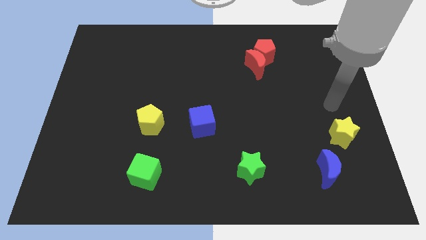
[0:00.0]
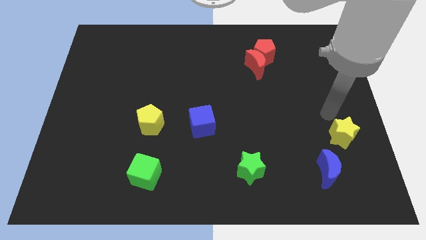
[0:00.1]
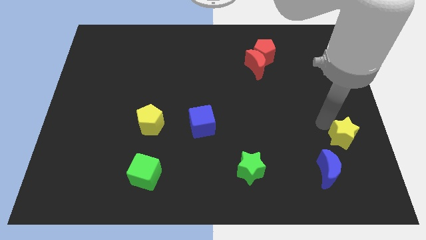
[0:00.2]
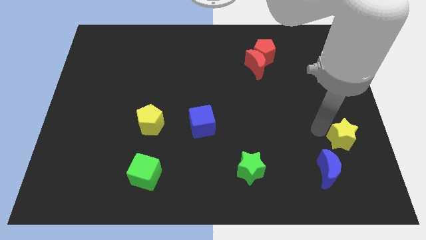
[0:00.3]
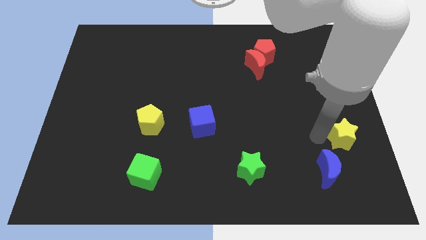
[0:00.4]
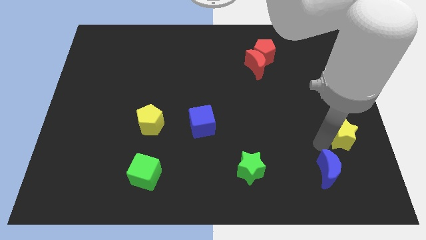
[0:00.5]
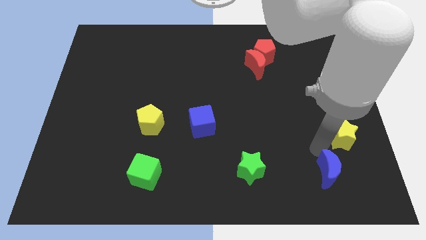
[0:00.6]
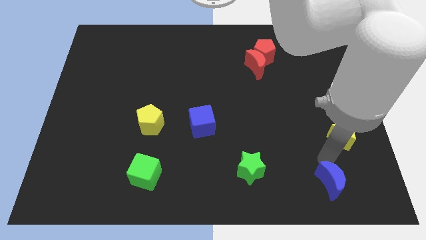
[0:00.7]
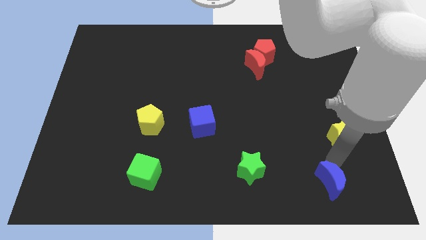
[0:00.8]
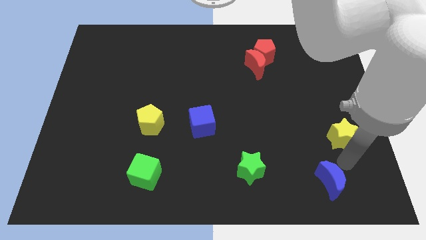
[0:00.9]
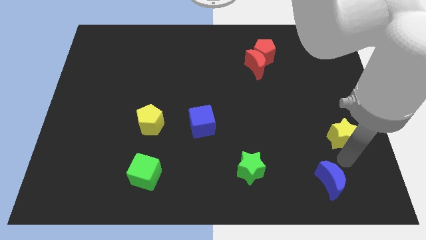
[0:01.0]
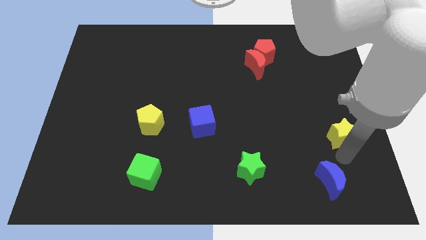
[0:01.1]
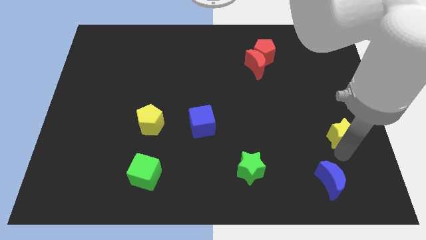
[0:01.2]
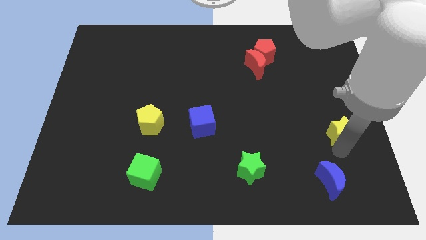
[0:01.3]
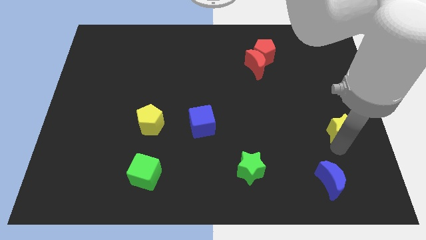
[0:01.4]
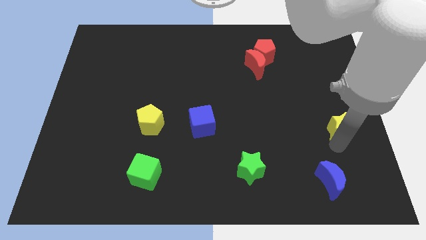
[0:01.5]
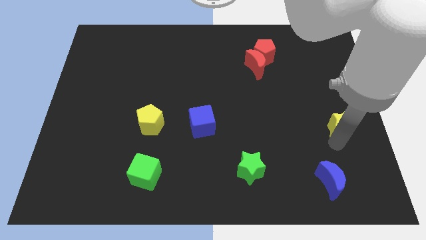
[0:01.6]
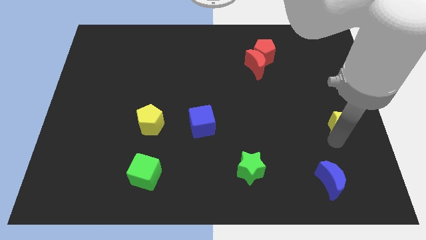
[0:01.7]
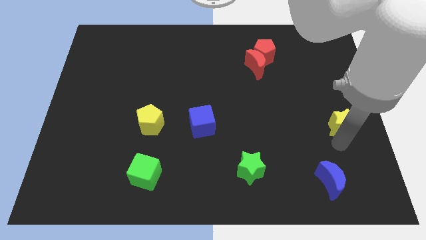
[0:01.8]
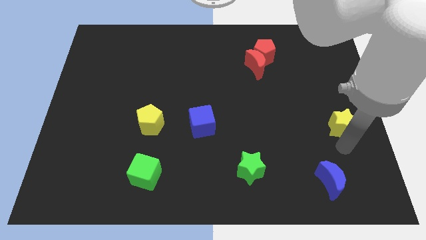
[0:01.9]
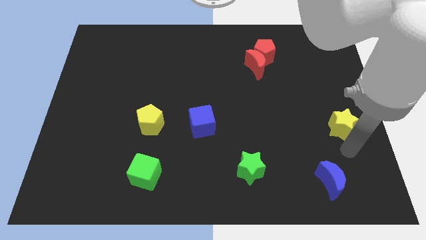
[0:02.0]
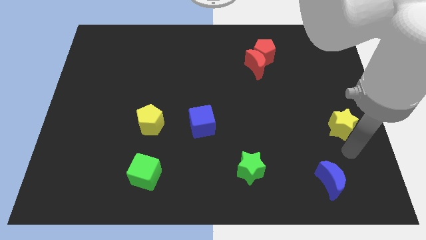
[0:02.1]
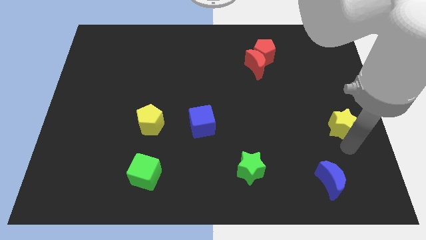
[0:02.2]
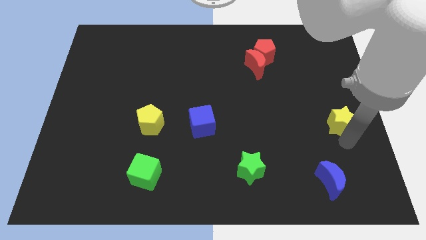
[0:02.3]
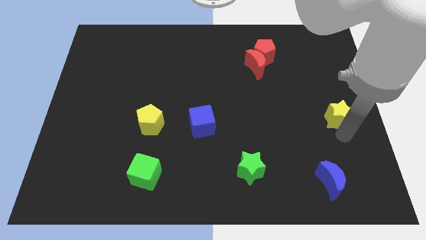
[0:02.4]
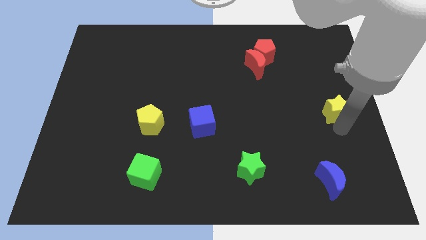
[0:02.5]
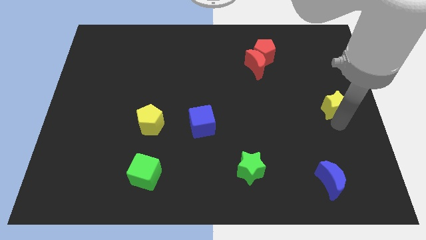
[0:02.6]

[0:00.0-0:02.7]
slide the yellow star a little up

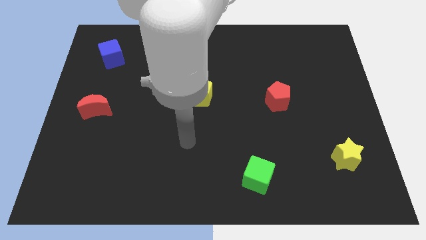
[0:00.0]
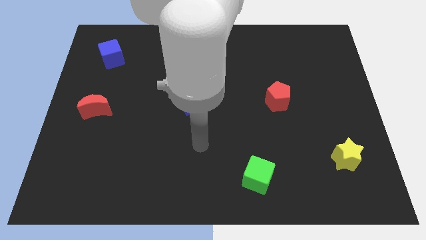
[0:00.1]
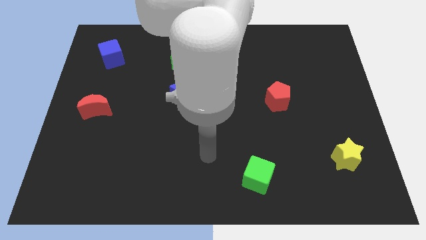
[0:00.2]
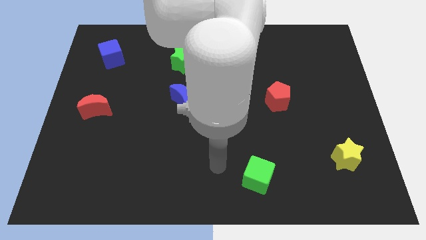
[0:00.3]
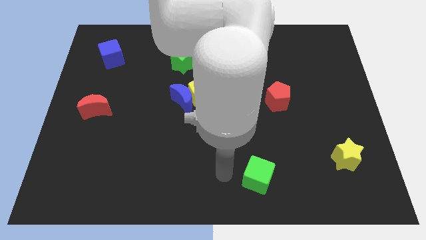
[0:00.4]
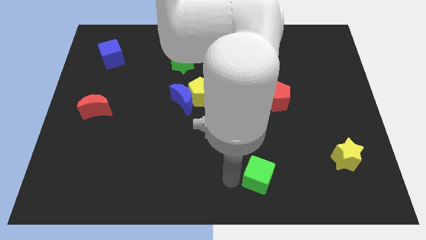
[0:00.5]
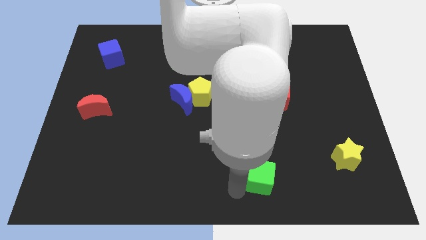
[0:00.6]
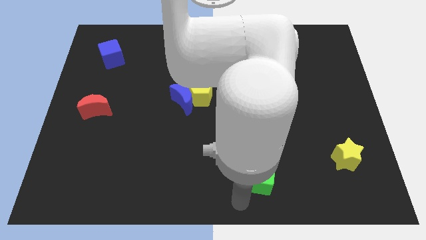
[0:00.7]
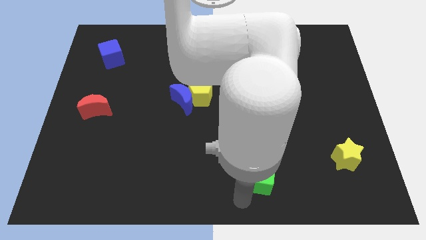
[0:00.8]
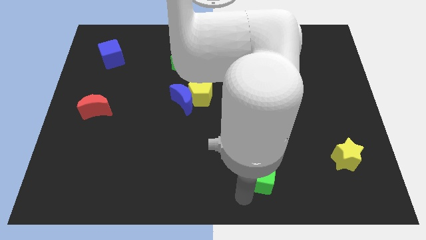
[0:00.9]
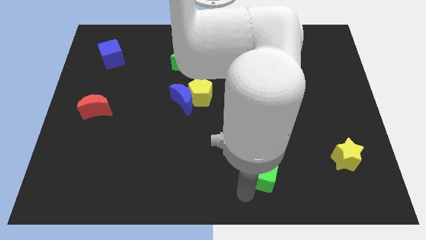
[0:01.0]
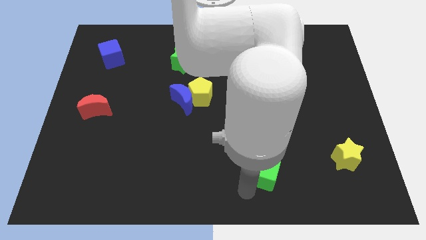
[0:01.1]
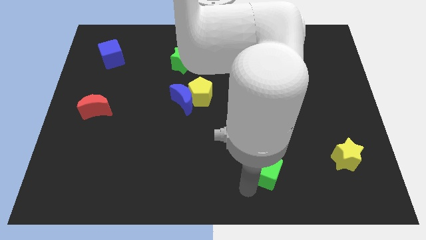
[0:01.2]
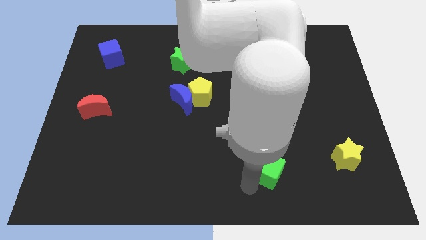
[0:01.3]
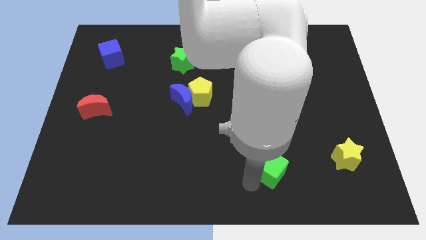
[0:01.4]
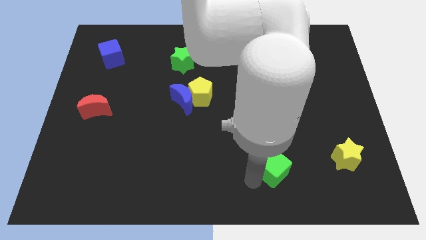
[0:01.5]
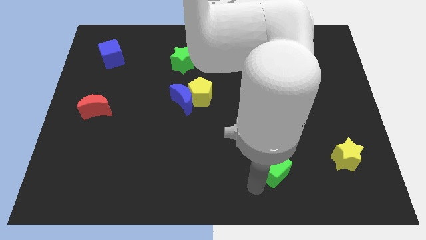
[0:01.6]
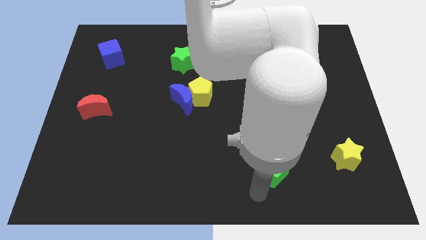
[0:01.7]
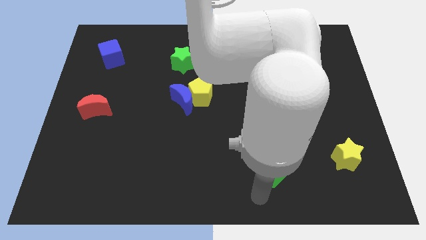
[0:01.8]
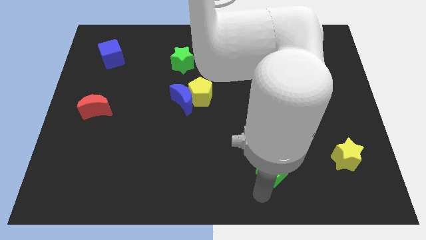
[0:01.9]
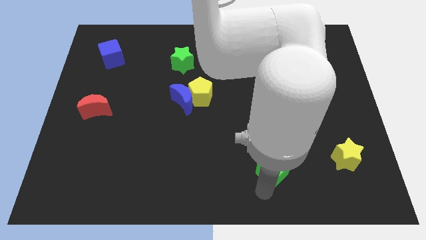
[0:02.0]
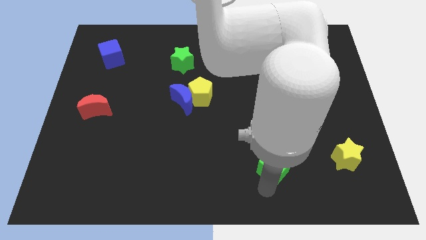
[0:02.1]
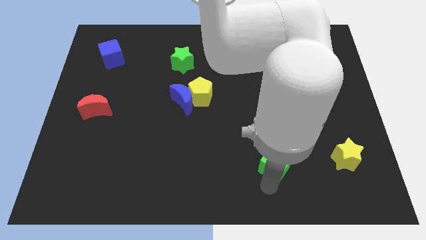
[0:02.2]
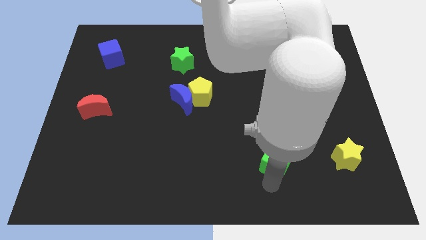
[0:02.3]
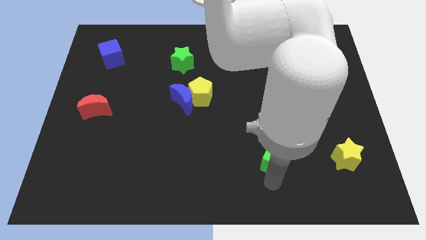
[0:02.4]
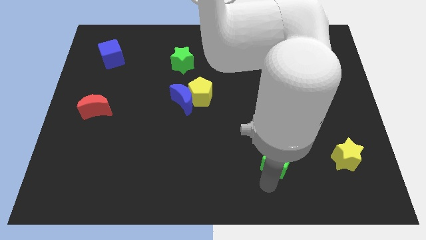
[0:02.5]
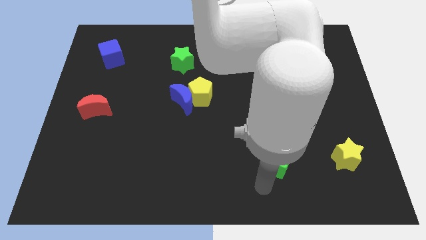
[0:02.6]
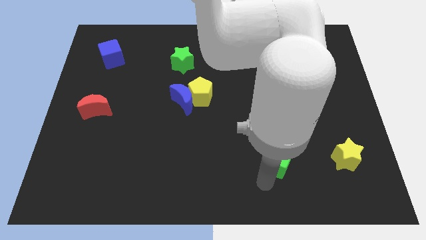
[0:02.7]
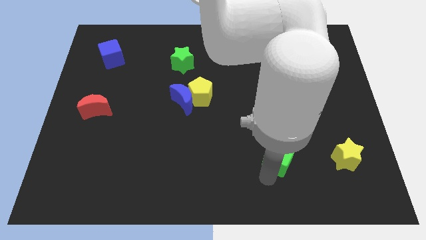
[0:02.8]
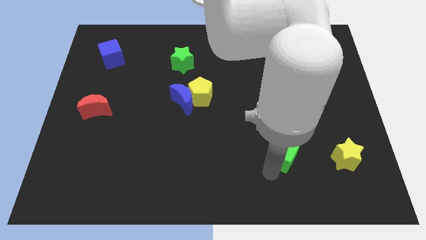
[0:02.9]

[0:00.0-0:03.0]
slightly move the green cube up and right diagonally

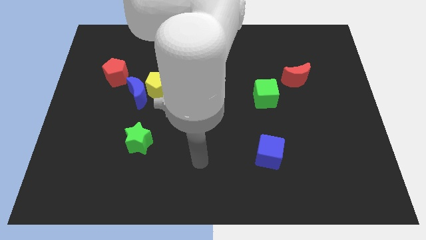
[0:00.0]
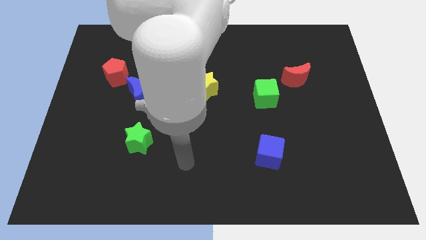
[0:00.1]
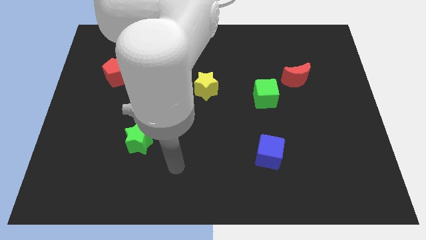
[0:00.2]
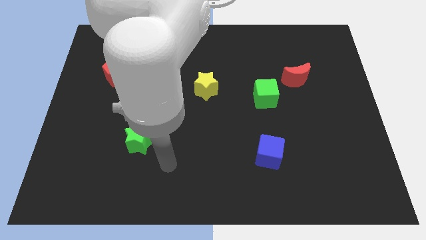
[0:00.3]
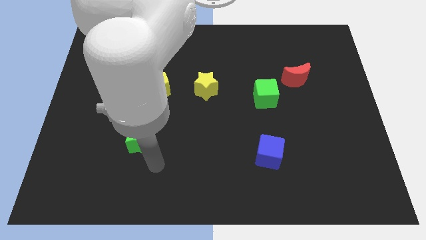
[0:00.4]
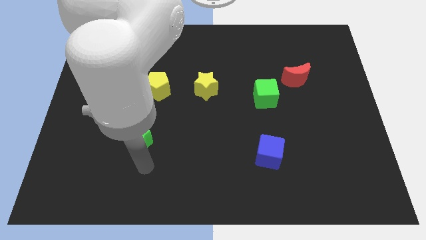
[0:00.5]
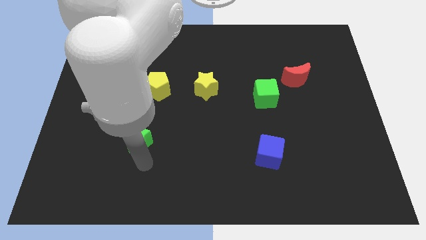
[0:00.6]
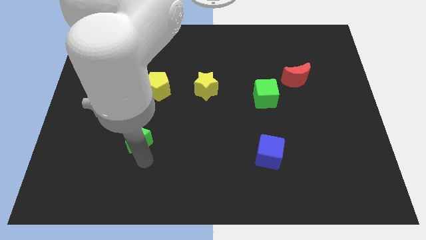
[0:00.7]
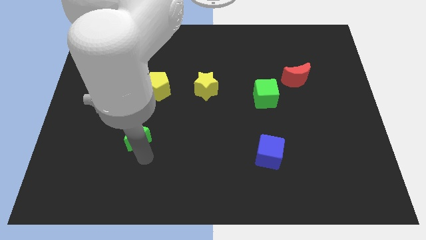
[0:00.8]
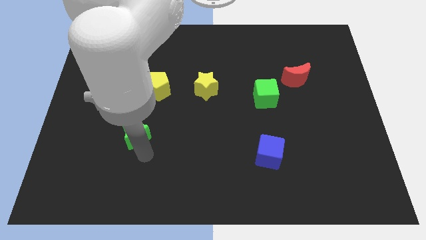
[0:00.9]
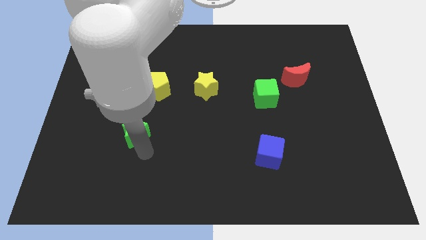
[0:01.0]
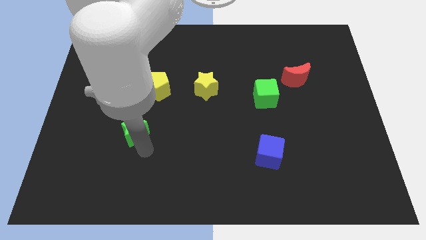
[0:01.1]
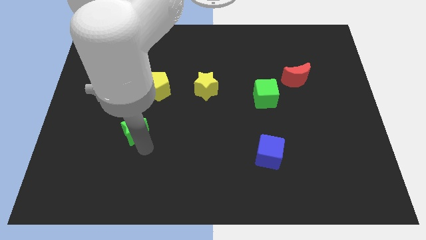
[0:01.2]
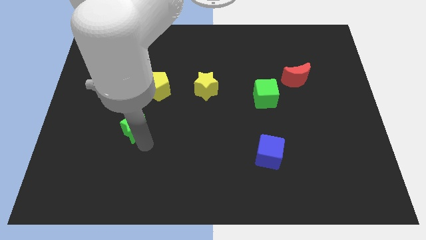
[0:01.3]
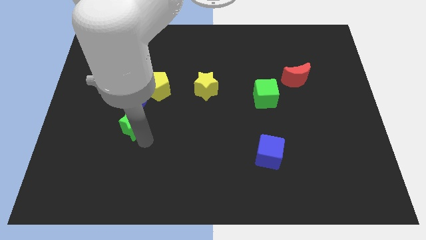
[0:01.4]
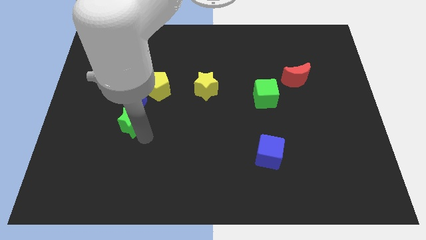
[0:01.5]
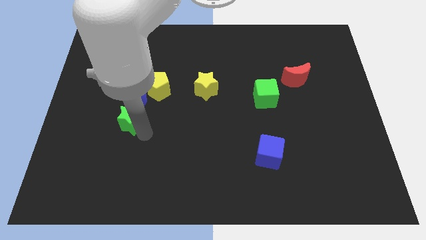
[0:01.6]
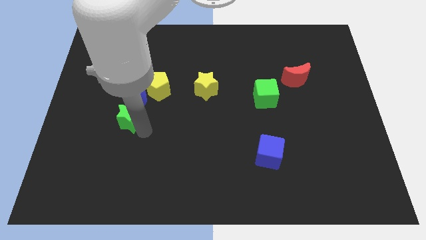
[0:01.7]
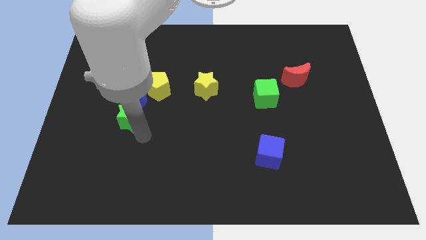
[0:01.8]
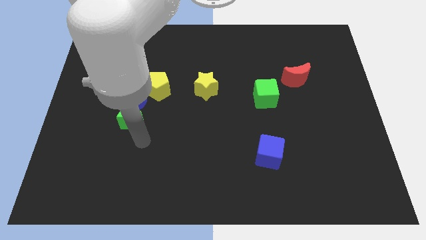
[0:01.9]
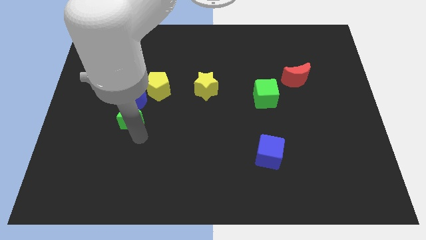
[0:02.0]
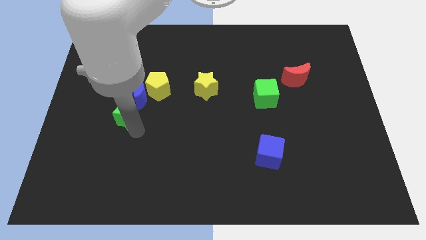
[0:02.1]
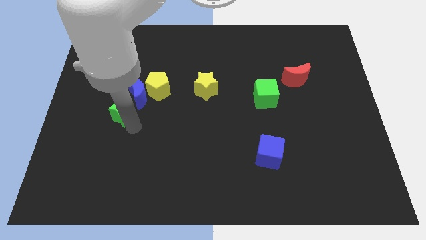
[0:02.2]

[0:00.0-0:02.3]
push the green star up a little bit
